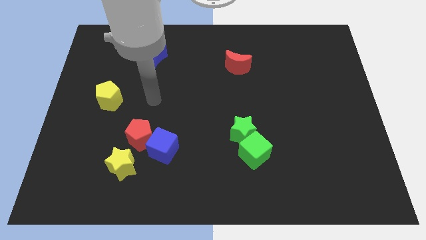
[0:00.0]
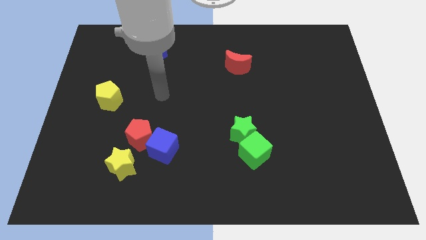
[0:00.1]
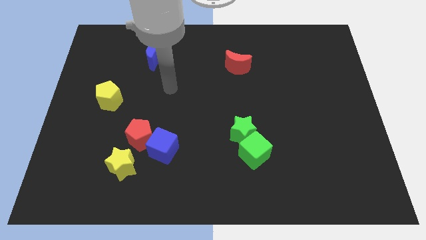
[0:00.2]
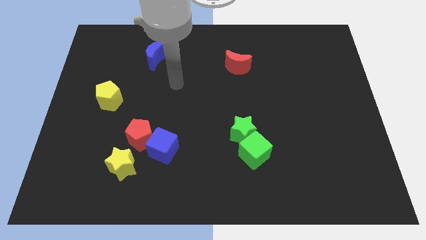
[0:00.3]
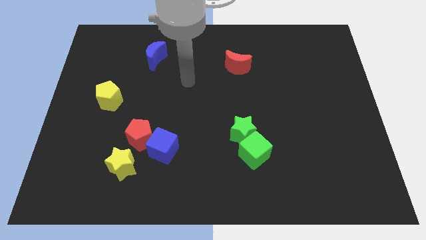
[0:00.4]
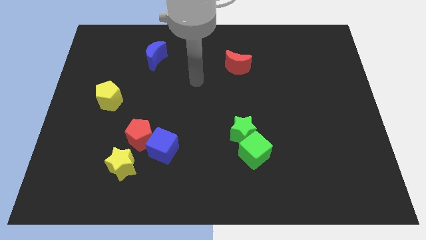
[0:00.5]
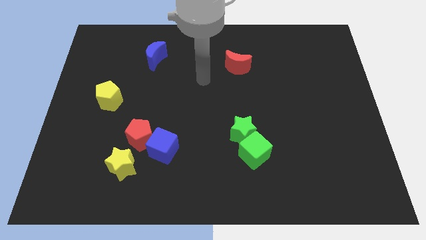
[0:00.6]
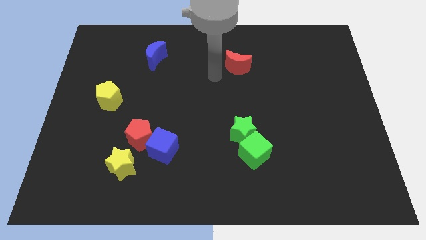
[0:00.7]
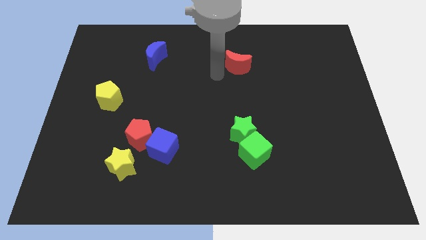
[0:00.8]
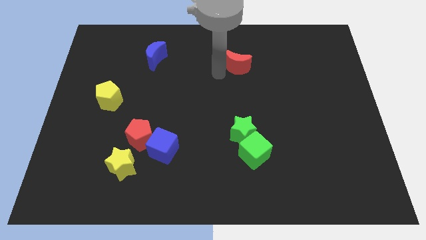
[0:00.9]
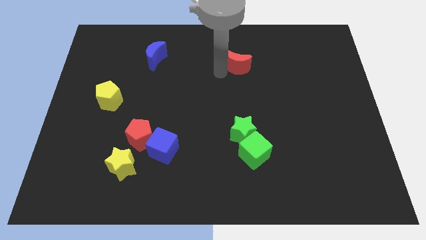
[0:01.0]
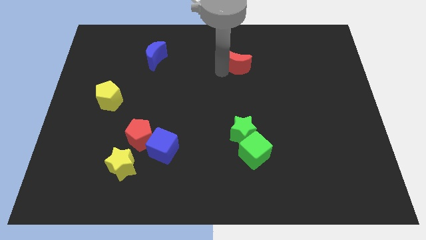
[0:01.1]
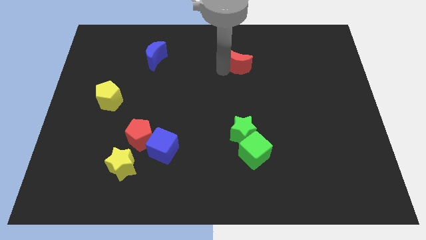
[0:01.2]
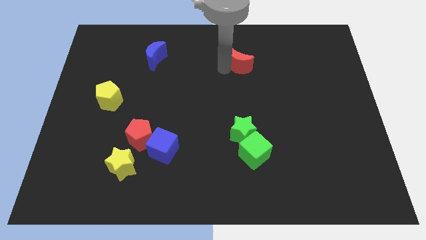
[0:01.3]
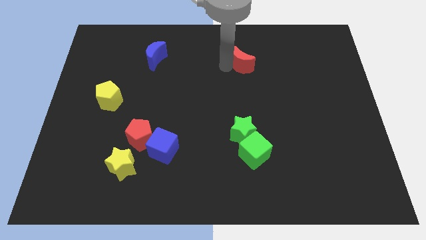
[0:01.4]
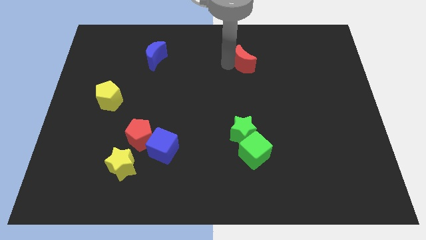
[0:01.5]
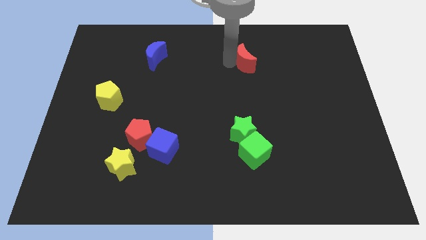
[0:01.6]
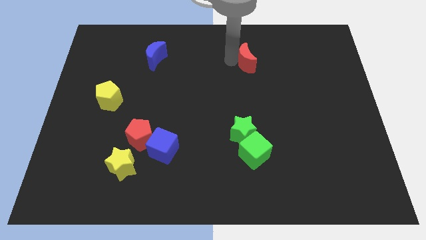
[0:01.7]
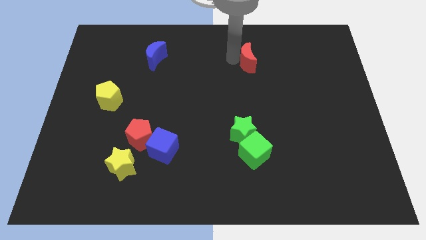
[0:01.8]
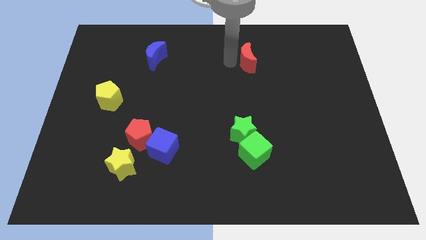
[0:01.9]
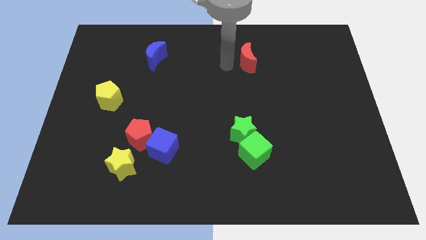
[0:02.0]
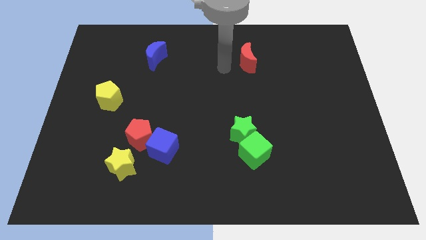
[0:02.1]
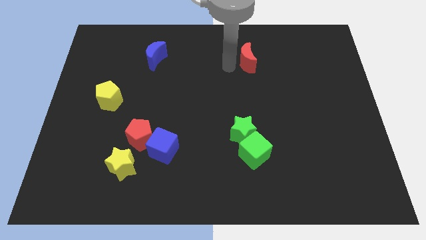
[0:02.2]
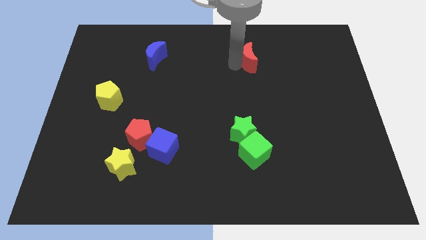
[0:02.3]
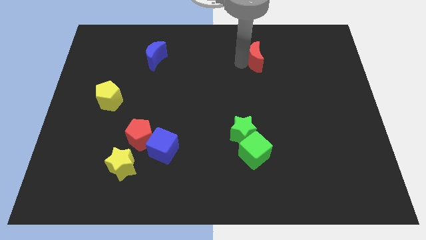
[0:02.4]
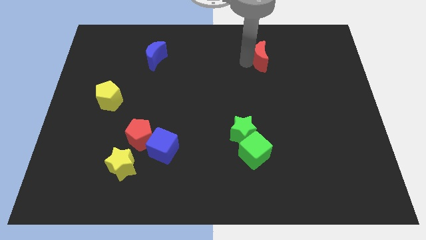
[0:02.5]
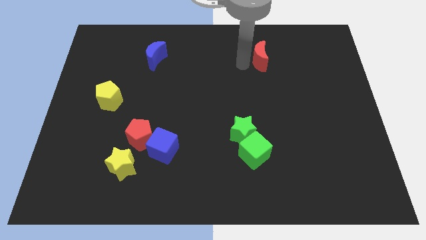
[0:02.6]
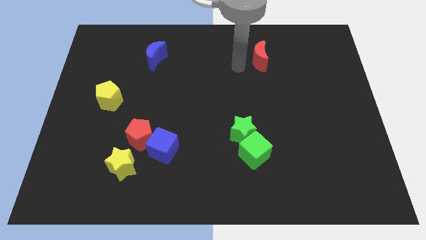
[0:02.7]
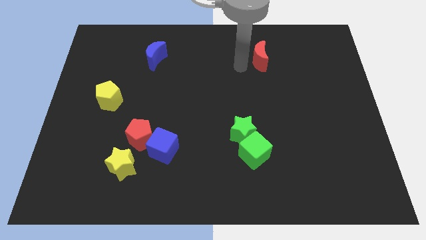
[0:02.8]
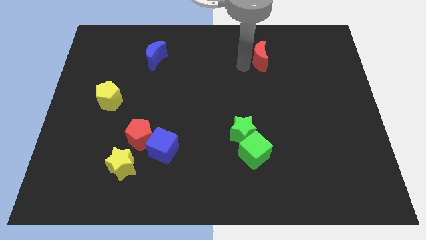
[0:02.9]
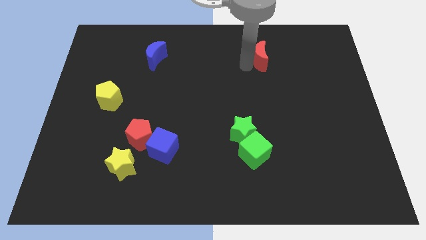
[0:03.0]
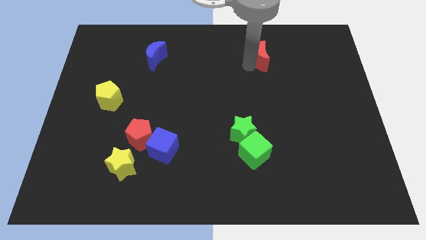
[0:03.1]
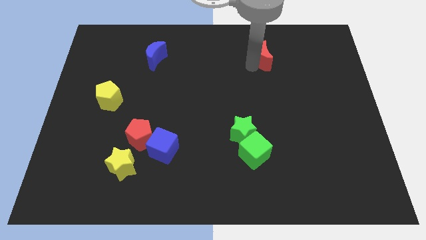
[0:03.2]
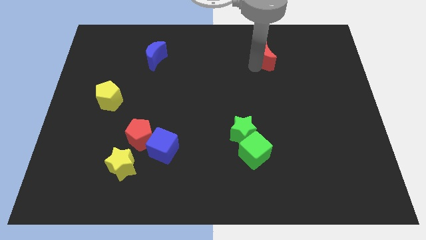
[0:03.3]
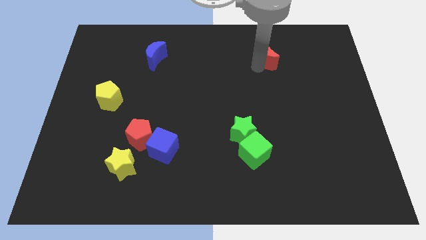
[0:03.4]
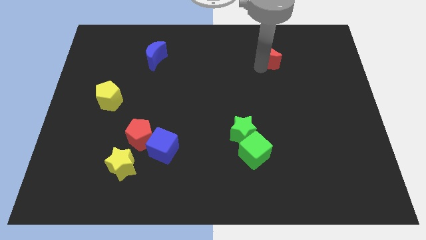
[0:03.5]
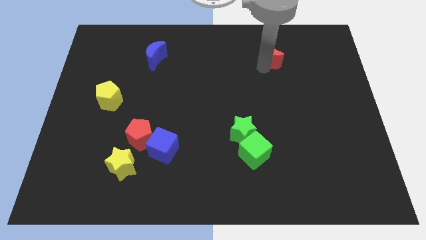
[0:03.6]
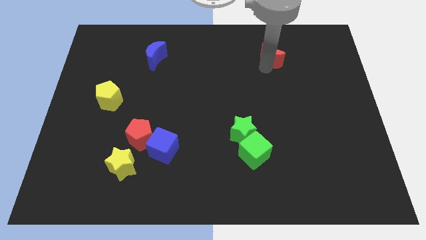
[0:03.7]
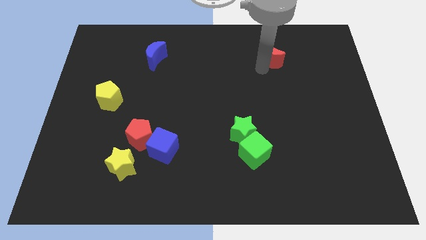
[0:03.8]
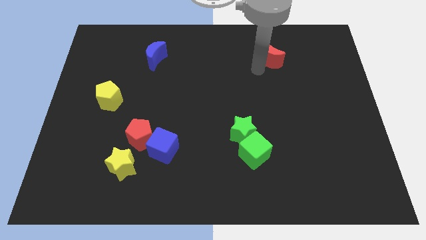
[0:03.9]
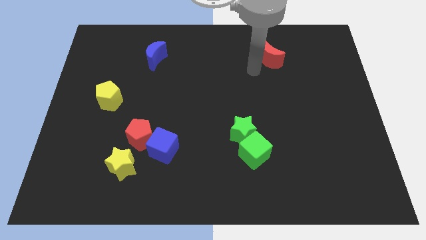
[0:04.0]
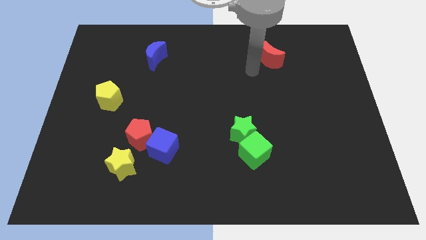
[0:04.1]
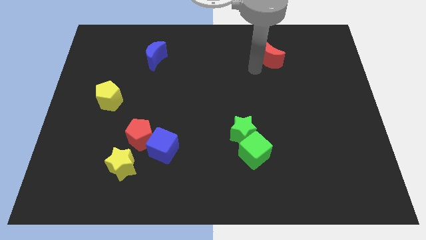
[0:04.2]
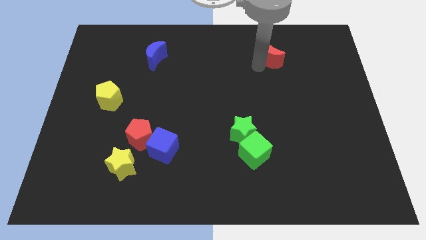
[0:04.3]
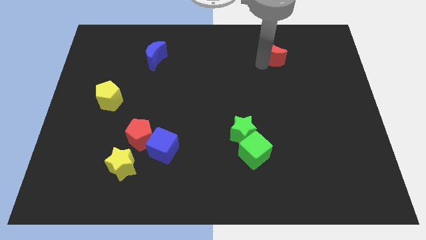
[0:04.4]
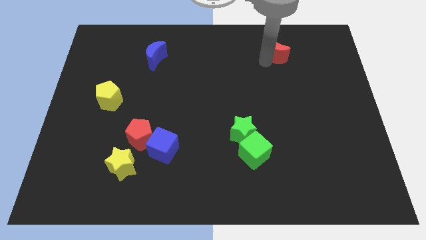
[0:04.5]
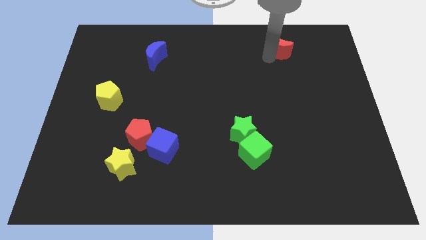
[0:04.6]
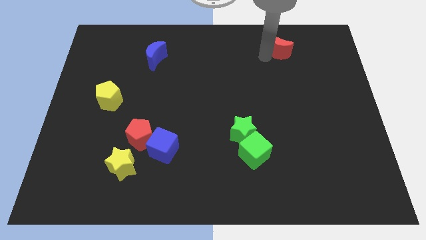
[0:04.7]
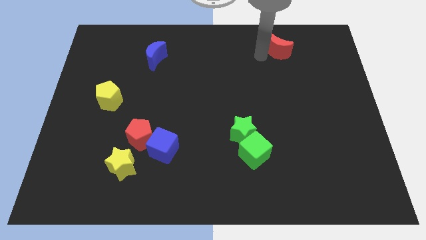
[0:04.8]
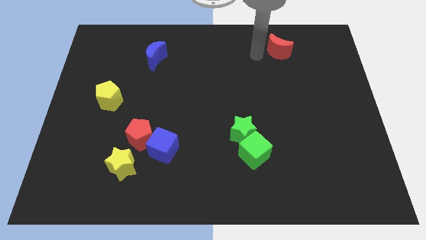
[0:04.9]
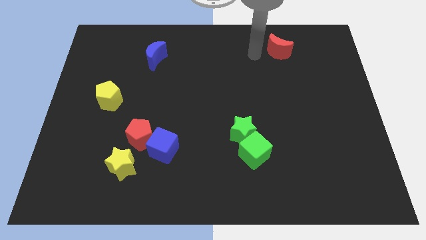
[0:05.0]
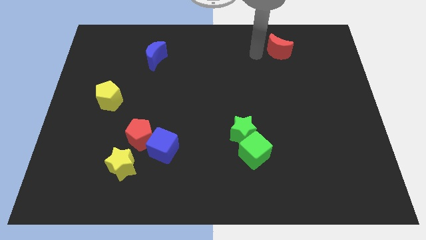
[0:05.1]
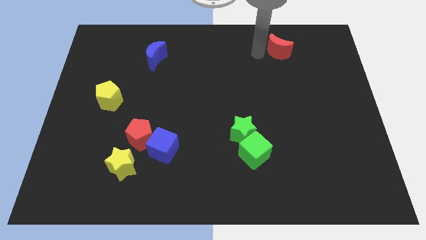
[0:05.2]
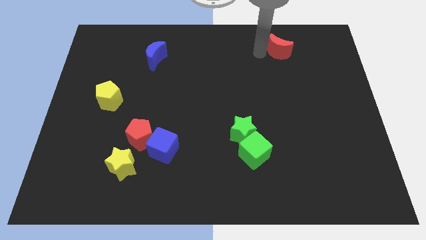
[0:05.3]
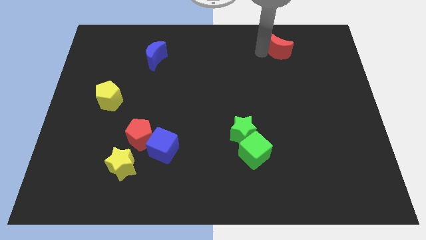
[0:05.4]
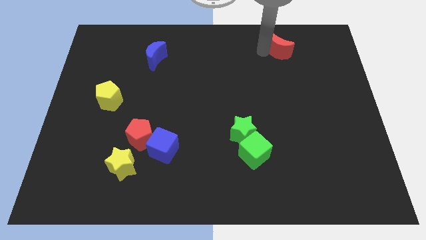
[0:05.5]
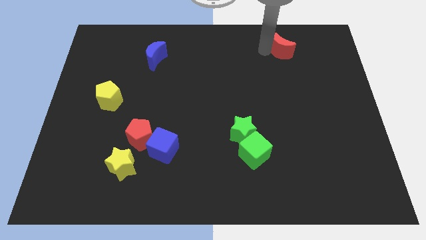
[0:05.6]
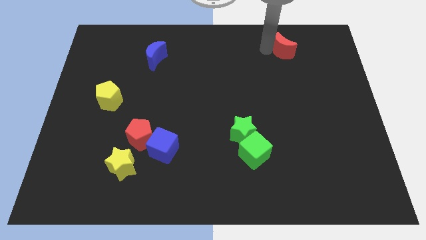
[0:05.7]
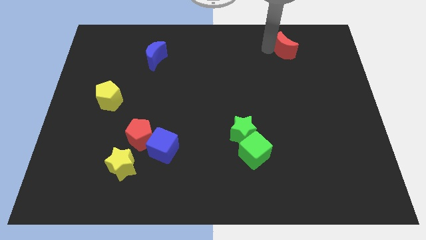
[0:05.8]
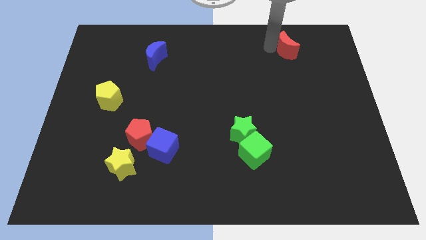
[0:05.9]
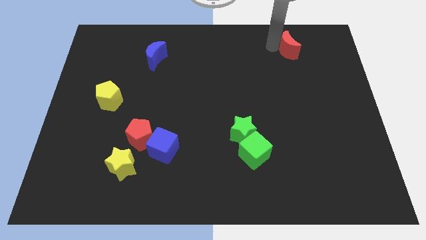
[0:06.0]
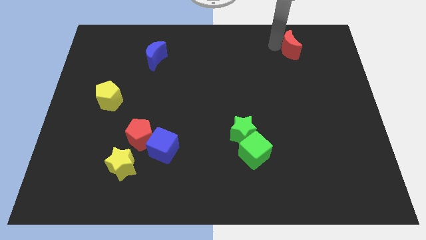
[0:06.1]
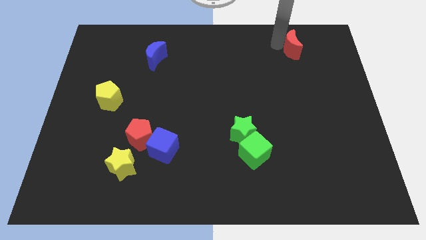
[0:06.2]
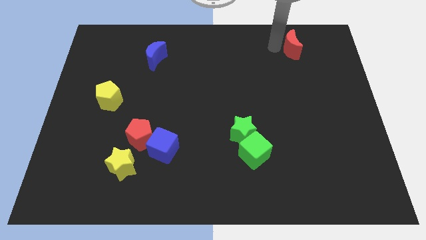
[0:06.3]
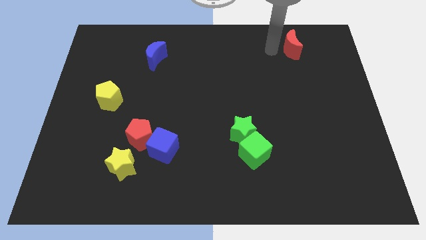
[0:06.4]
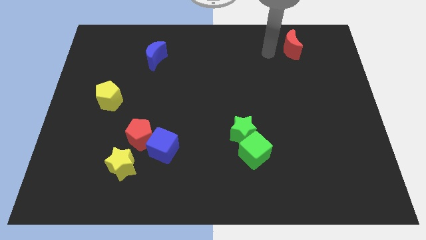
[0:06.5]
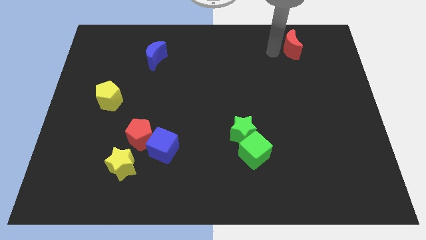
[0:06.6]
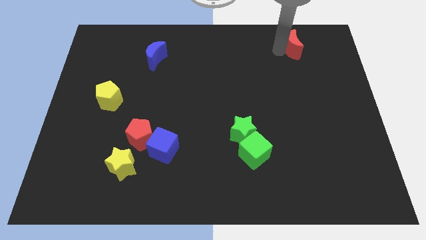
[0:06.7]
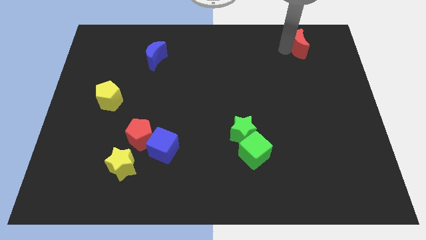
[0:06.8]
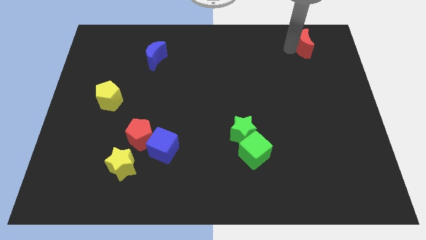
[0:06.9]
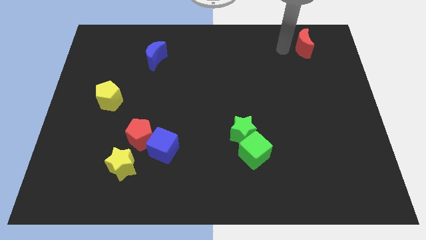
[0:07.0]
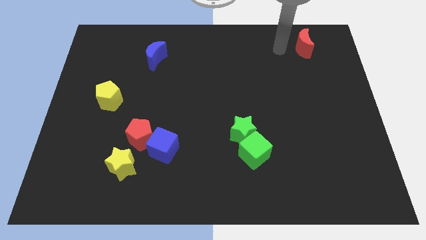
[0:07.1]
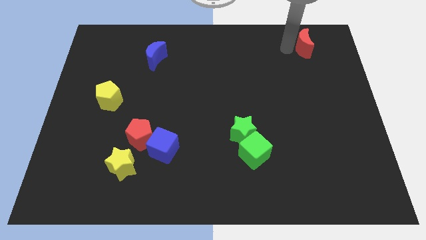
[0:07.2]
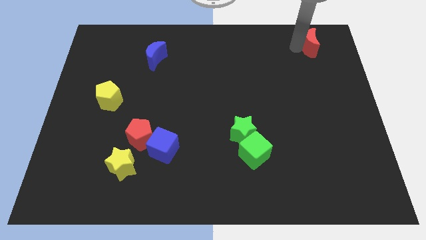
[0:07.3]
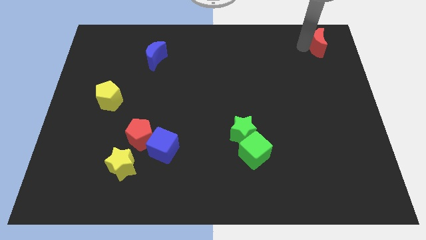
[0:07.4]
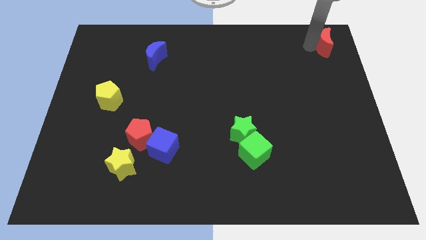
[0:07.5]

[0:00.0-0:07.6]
put the red moon to the top right of the board
